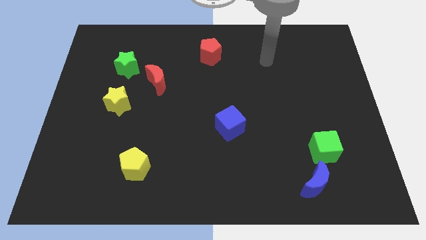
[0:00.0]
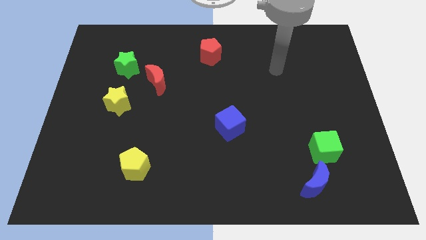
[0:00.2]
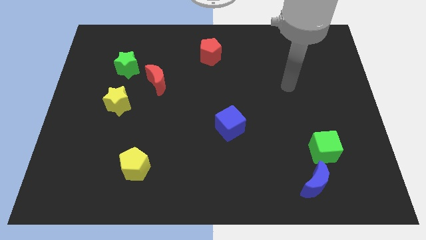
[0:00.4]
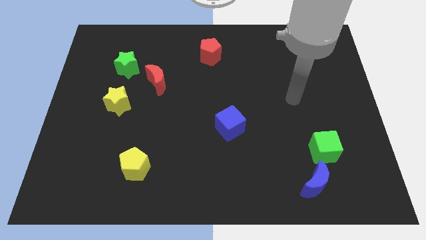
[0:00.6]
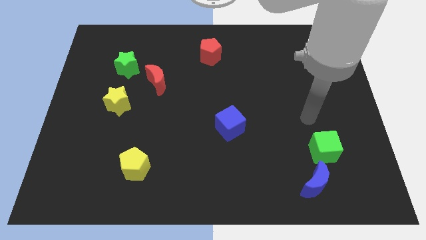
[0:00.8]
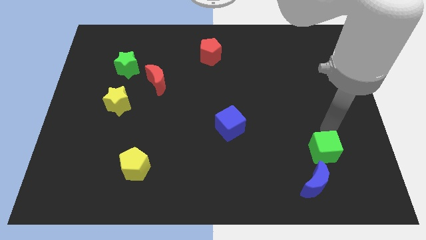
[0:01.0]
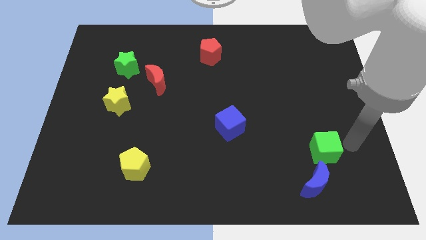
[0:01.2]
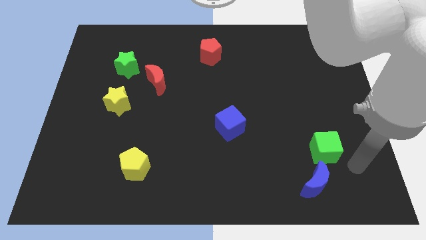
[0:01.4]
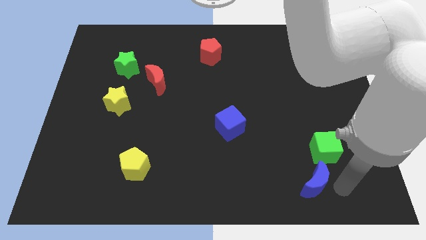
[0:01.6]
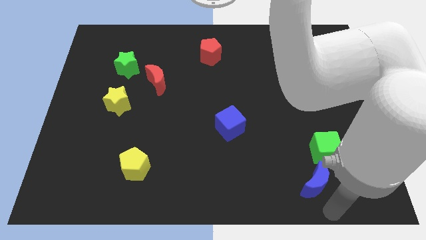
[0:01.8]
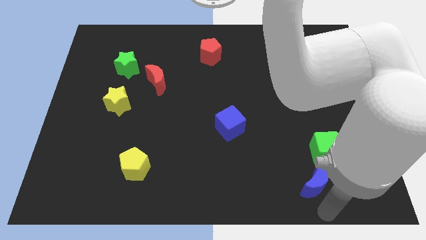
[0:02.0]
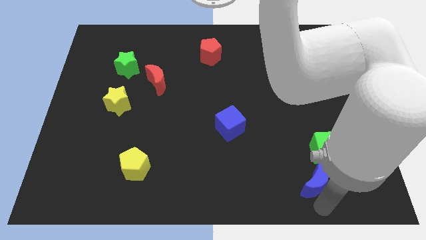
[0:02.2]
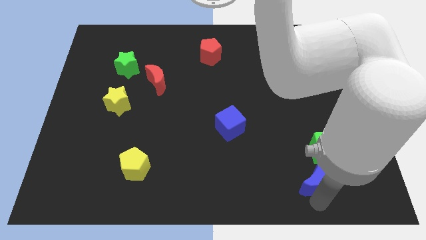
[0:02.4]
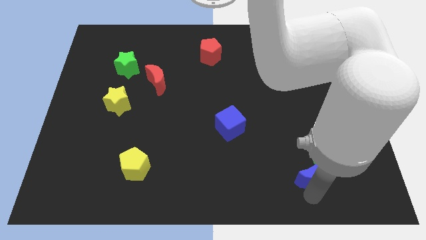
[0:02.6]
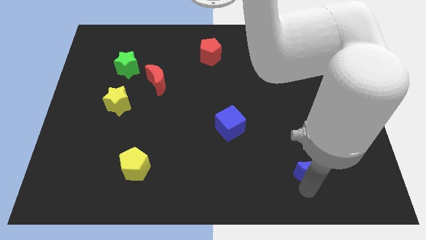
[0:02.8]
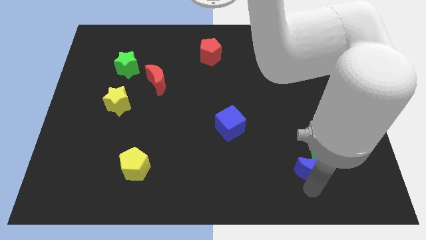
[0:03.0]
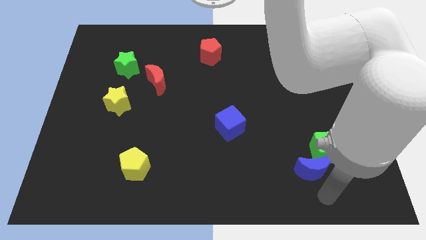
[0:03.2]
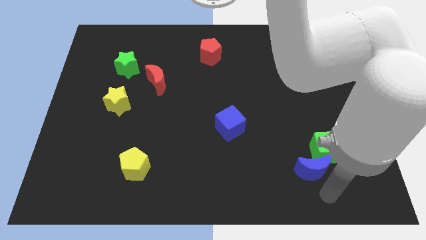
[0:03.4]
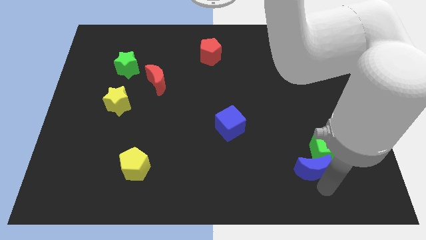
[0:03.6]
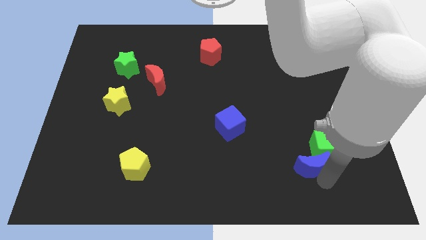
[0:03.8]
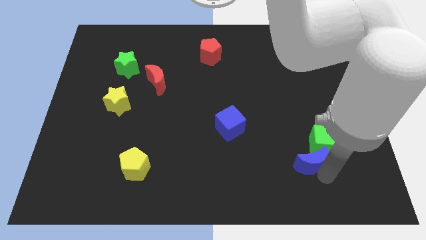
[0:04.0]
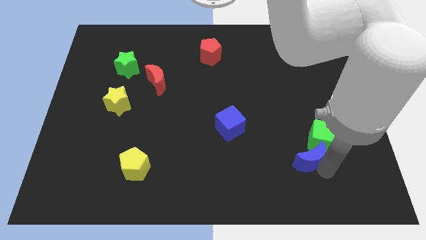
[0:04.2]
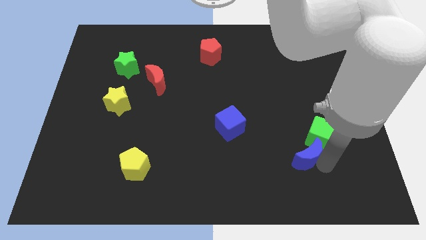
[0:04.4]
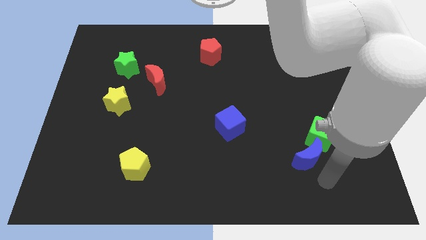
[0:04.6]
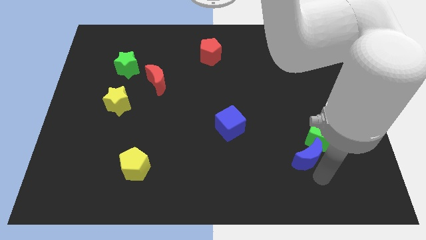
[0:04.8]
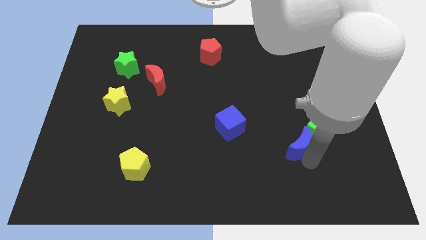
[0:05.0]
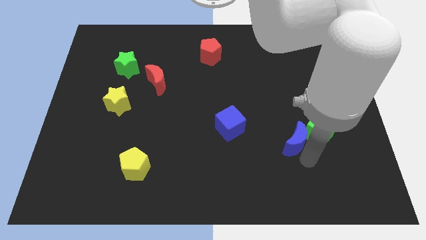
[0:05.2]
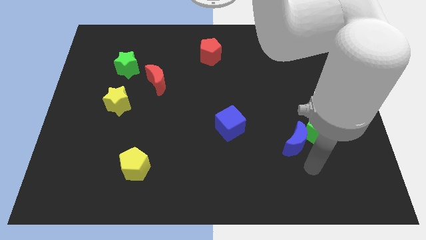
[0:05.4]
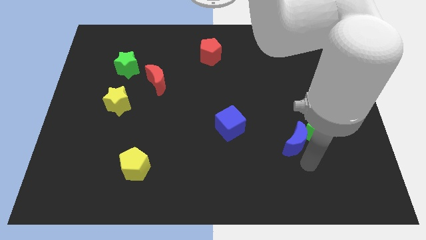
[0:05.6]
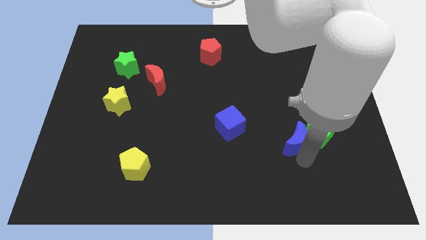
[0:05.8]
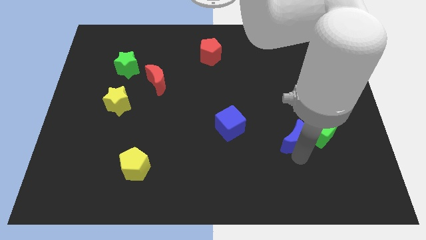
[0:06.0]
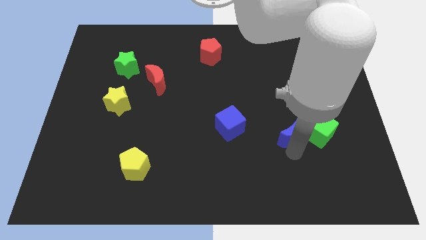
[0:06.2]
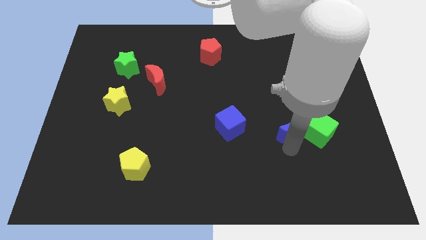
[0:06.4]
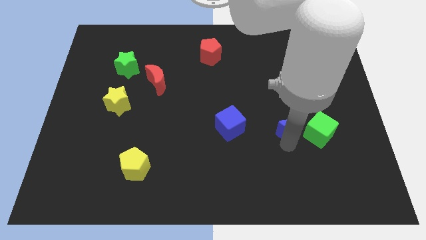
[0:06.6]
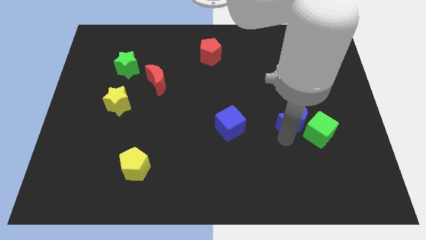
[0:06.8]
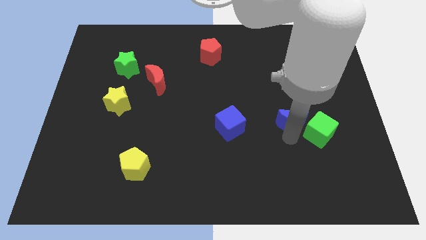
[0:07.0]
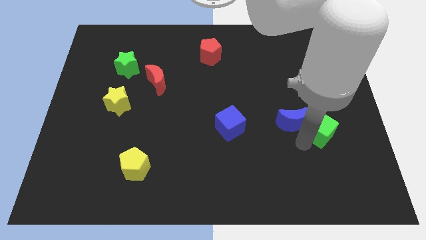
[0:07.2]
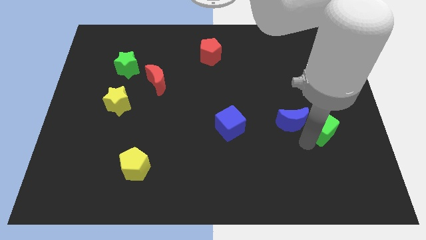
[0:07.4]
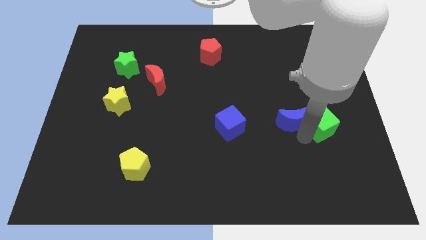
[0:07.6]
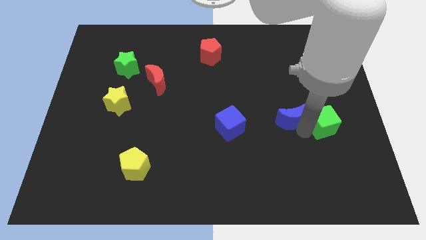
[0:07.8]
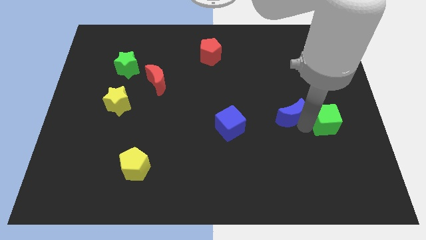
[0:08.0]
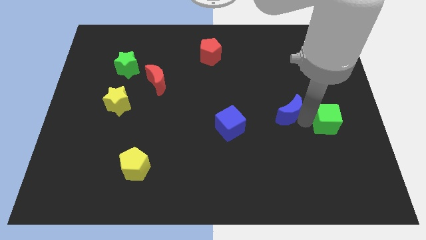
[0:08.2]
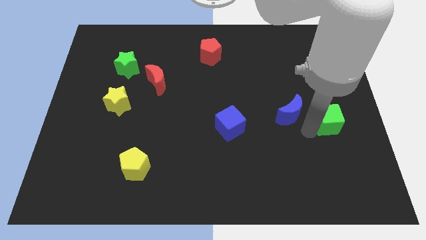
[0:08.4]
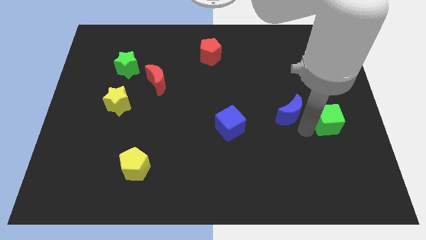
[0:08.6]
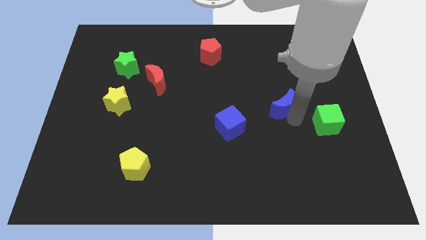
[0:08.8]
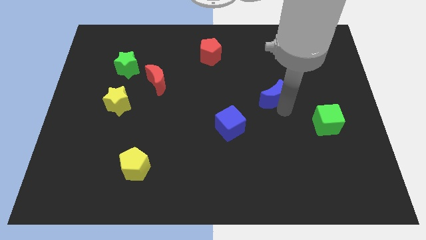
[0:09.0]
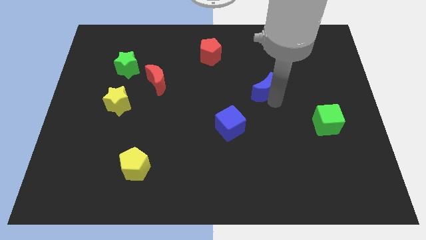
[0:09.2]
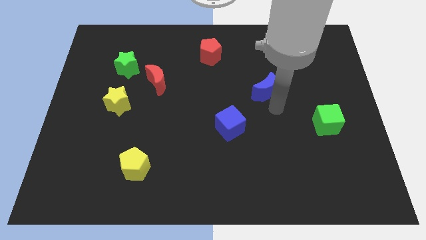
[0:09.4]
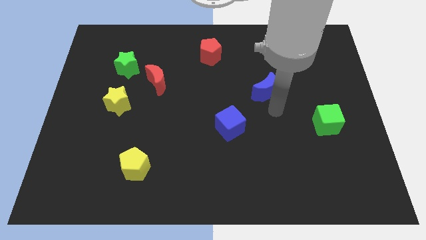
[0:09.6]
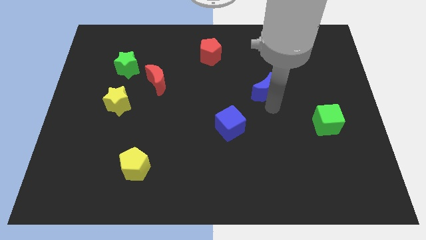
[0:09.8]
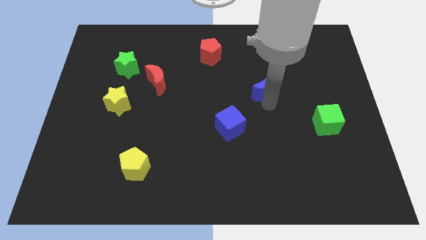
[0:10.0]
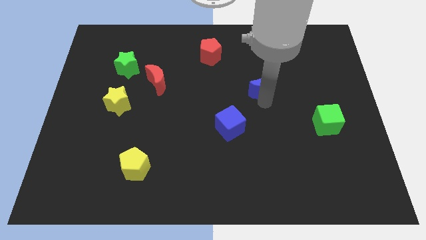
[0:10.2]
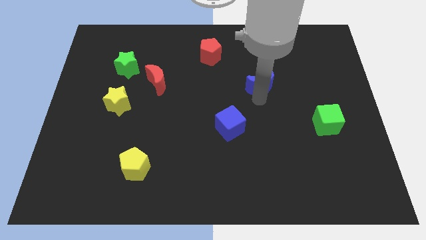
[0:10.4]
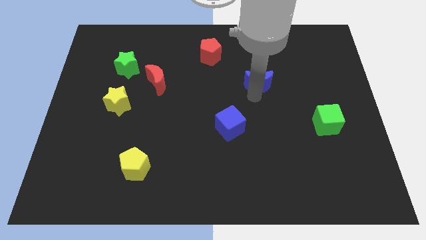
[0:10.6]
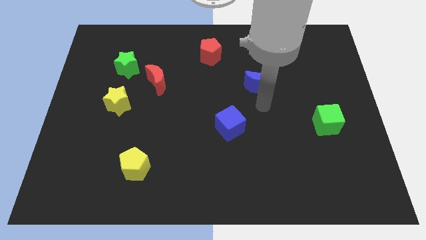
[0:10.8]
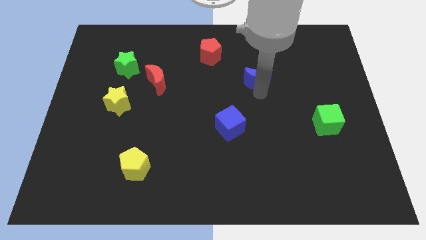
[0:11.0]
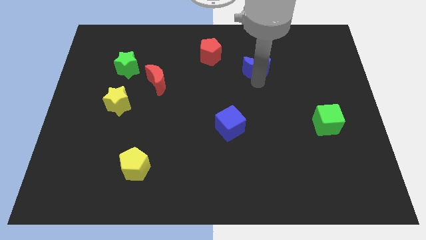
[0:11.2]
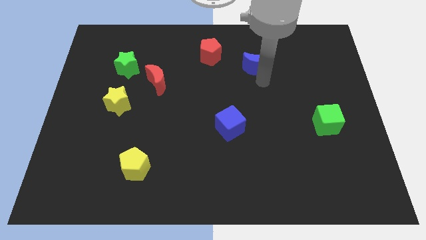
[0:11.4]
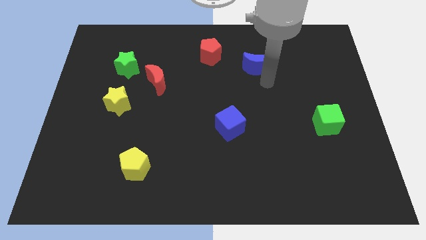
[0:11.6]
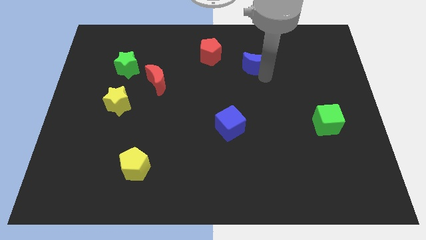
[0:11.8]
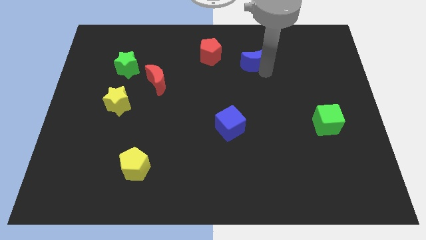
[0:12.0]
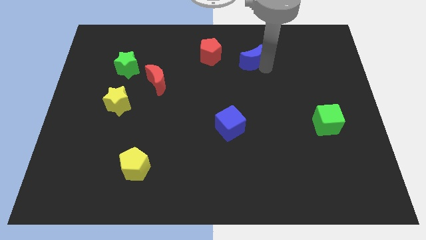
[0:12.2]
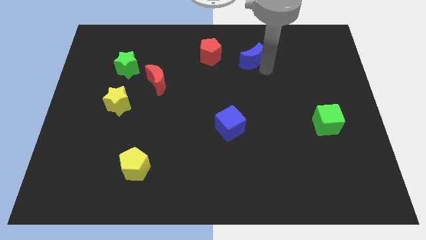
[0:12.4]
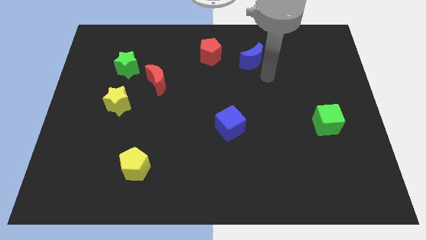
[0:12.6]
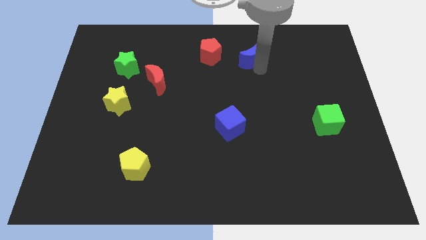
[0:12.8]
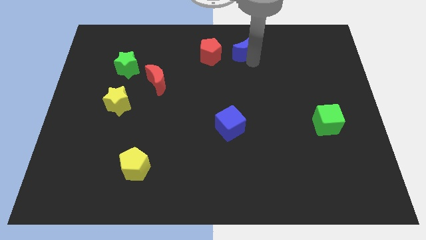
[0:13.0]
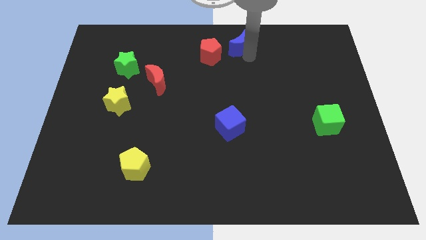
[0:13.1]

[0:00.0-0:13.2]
put the blue moon to the top
